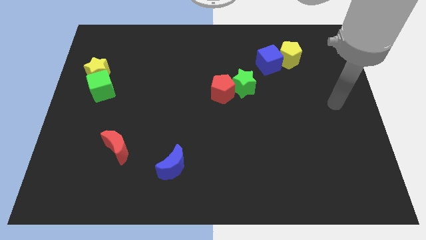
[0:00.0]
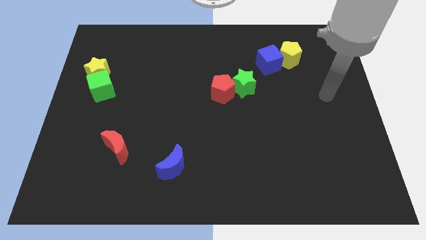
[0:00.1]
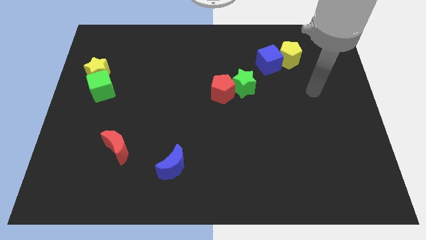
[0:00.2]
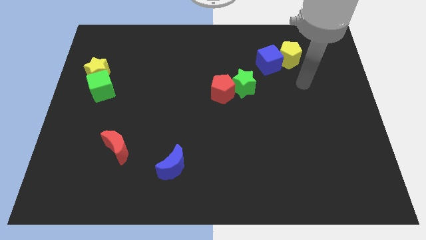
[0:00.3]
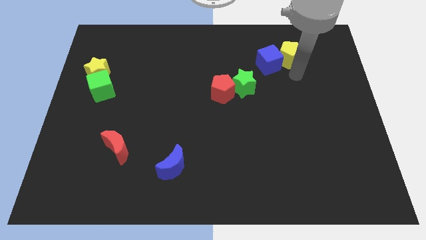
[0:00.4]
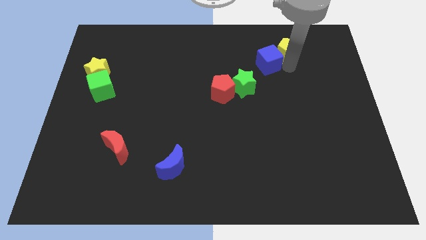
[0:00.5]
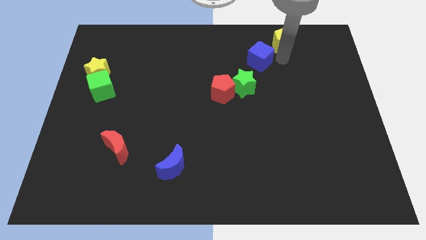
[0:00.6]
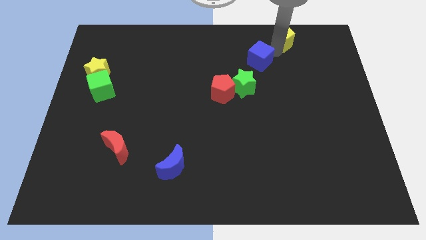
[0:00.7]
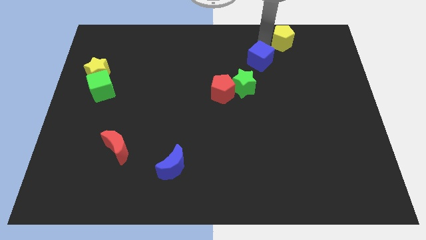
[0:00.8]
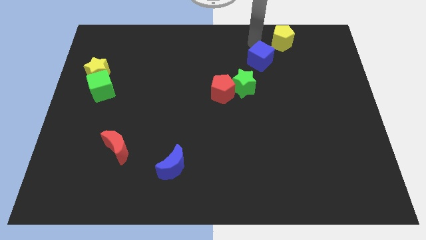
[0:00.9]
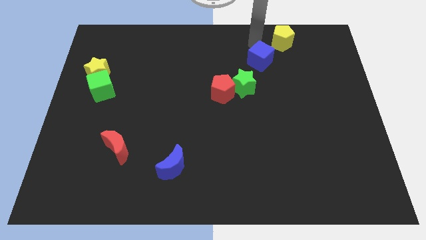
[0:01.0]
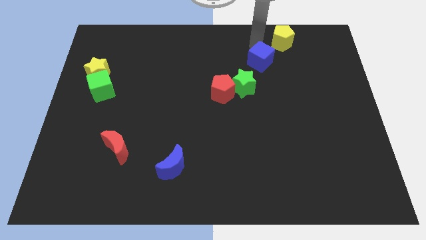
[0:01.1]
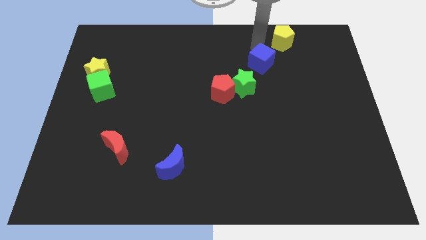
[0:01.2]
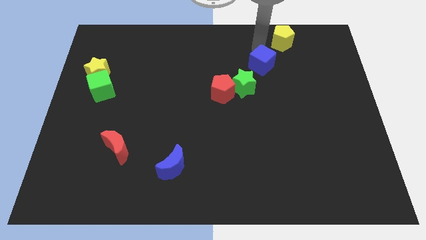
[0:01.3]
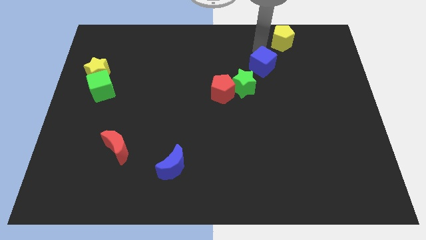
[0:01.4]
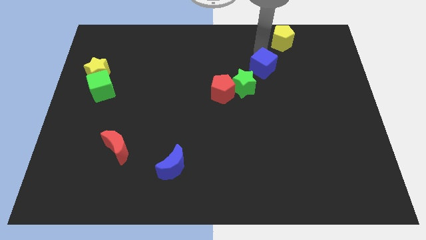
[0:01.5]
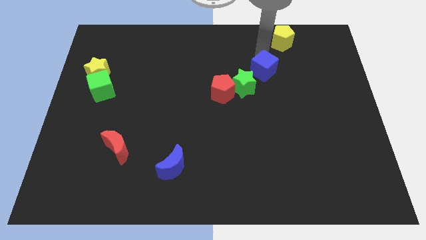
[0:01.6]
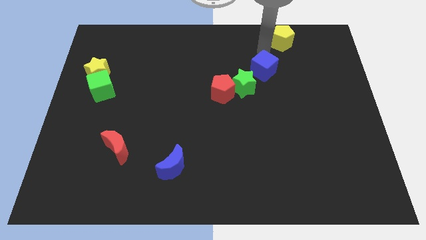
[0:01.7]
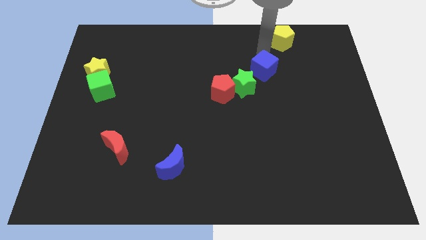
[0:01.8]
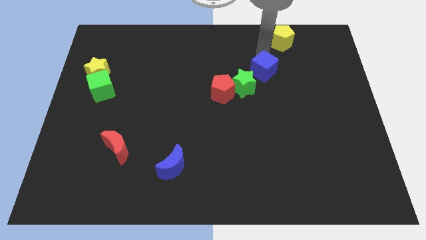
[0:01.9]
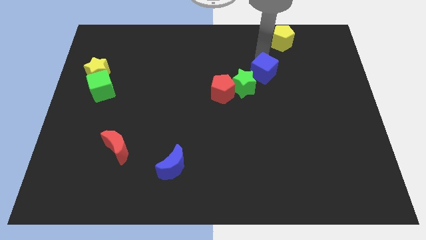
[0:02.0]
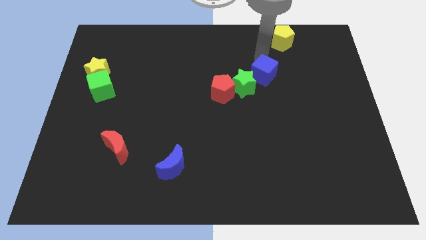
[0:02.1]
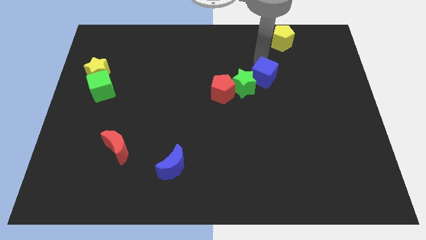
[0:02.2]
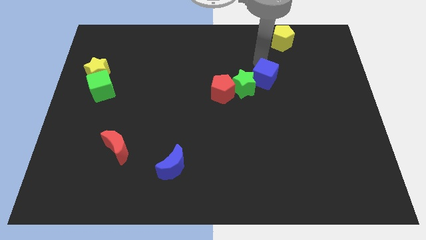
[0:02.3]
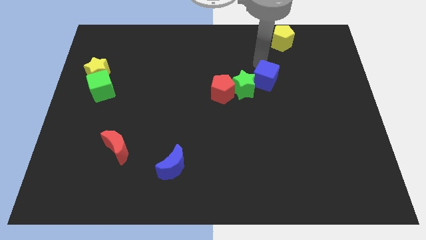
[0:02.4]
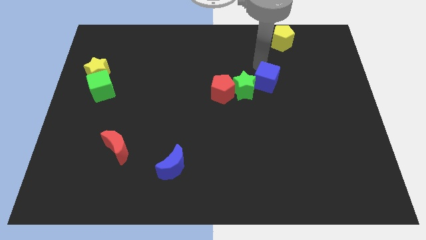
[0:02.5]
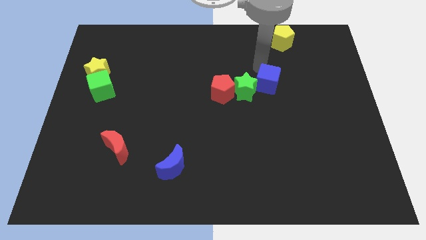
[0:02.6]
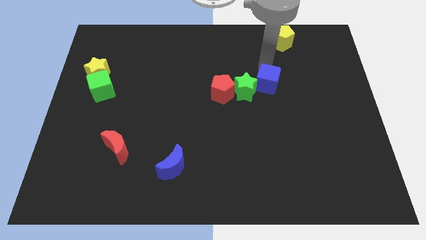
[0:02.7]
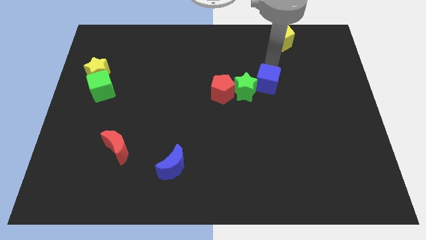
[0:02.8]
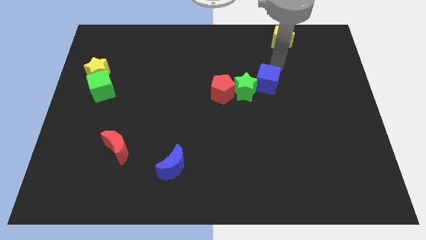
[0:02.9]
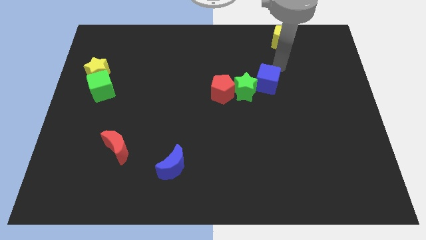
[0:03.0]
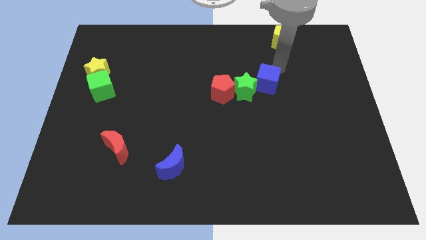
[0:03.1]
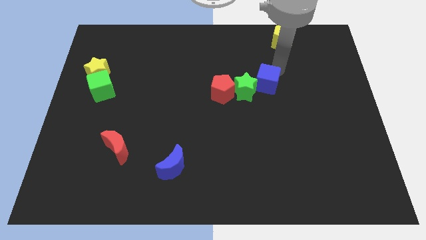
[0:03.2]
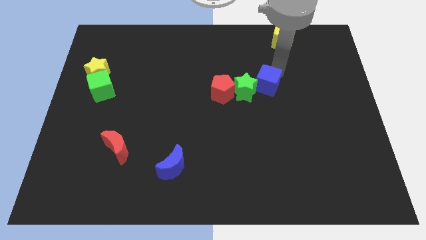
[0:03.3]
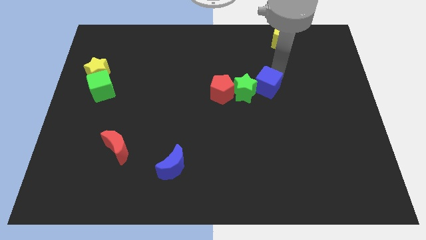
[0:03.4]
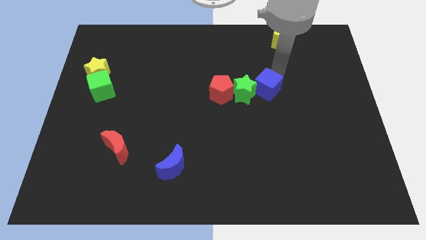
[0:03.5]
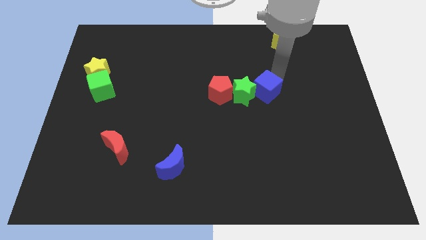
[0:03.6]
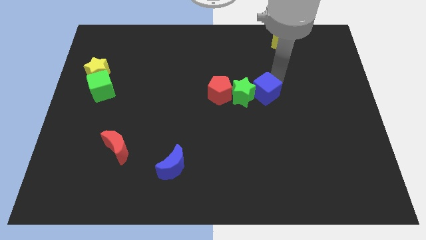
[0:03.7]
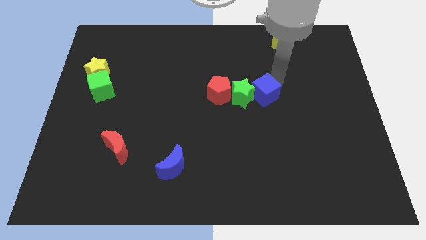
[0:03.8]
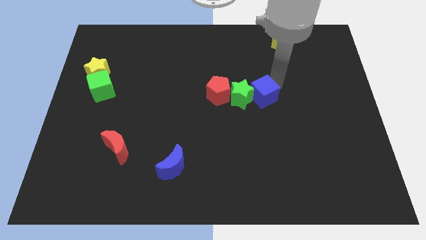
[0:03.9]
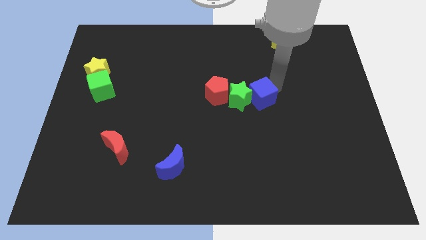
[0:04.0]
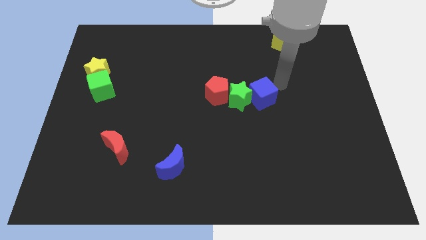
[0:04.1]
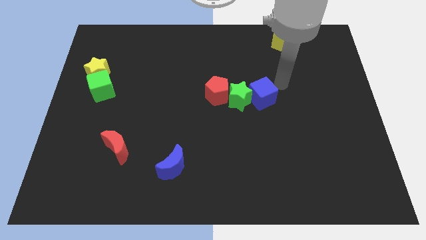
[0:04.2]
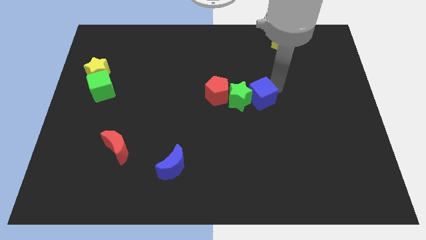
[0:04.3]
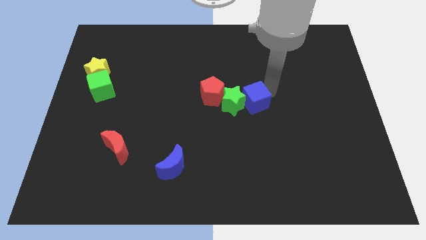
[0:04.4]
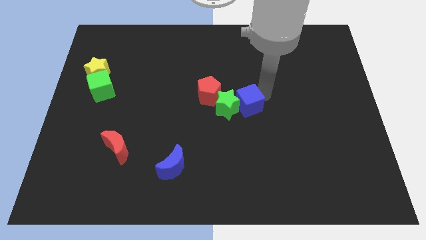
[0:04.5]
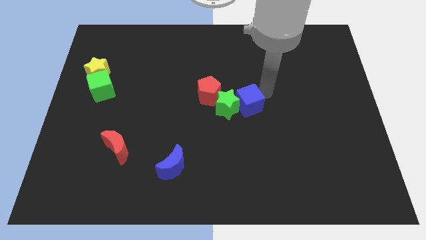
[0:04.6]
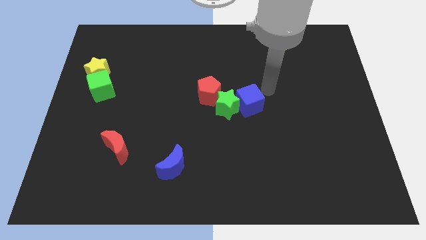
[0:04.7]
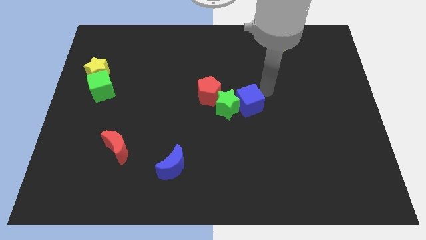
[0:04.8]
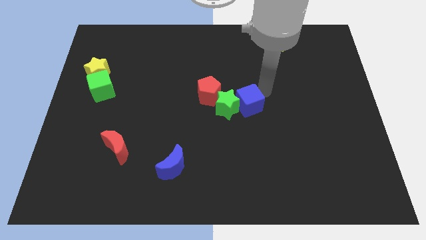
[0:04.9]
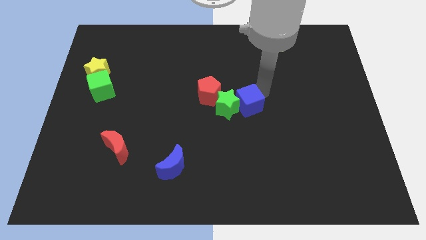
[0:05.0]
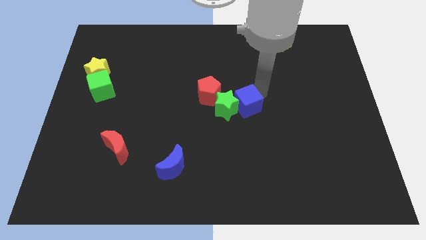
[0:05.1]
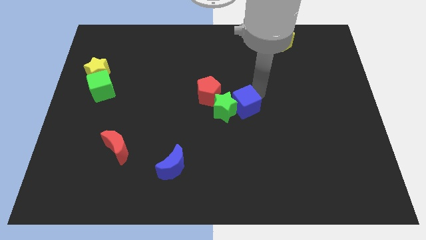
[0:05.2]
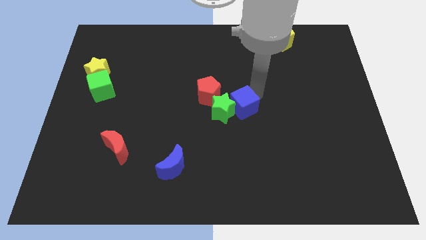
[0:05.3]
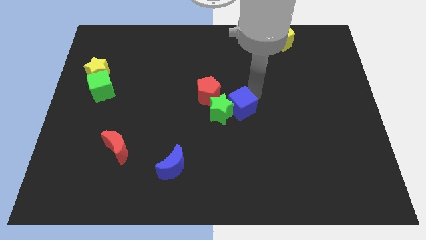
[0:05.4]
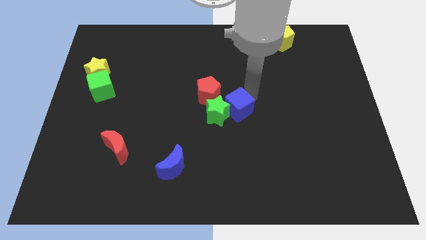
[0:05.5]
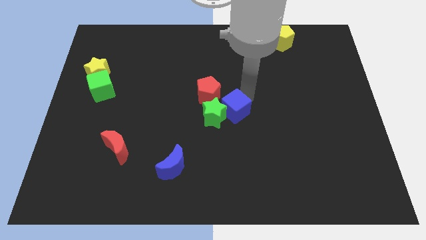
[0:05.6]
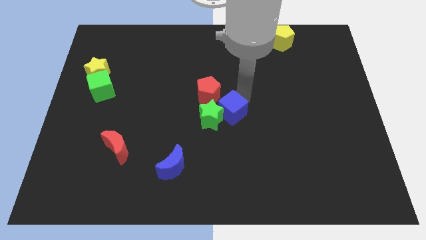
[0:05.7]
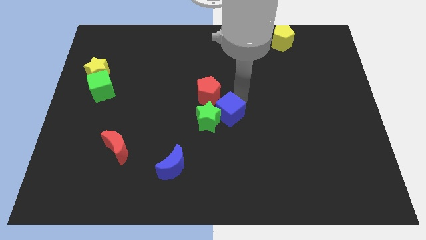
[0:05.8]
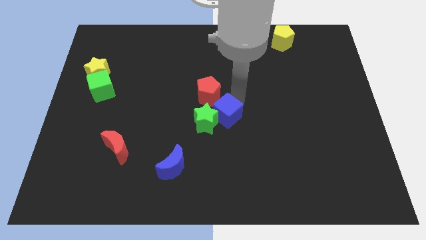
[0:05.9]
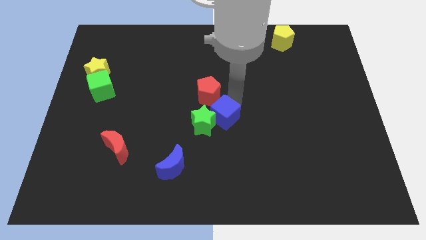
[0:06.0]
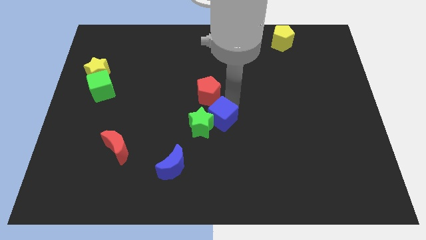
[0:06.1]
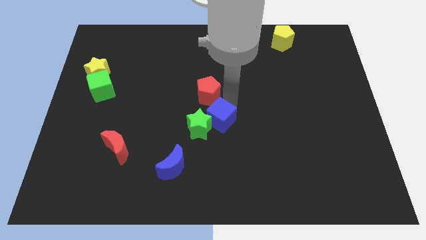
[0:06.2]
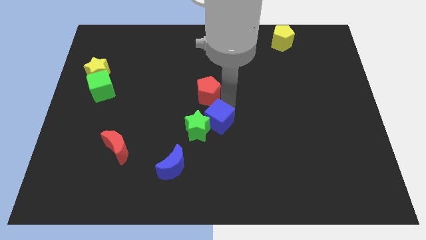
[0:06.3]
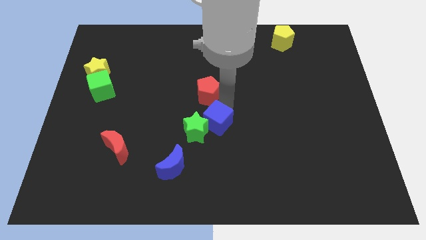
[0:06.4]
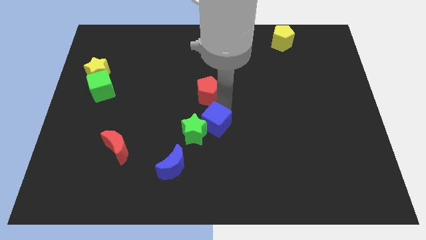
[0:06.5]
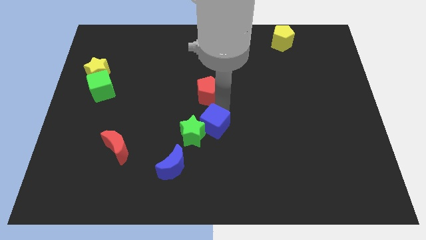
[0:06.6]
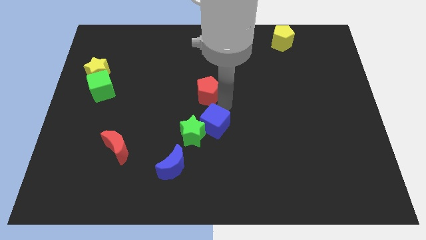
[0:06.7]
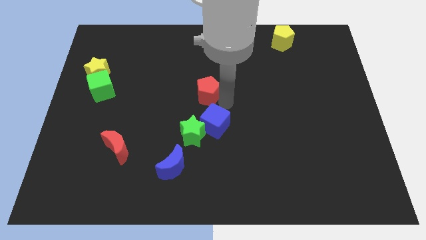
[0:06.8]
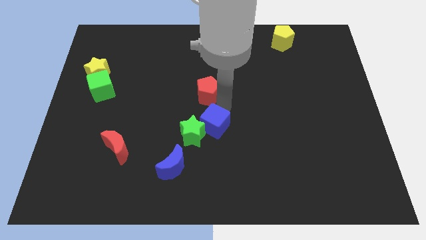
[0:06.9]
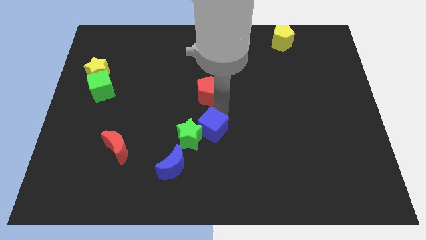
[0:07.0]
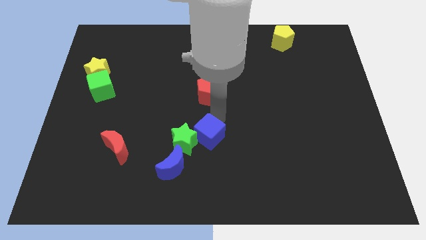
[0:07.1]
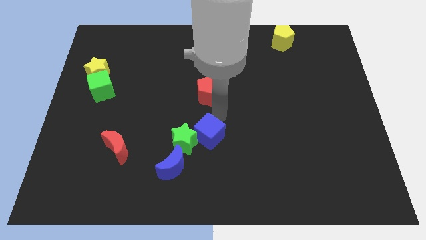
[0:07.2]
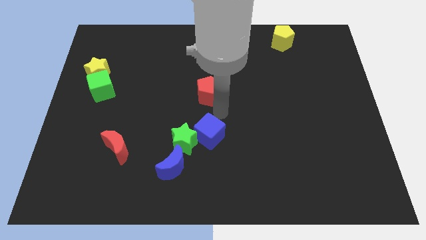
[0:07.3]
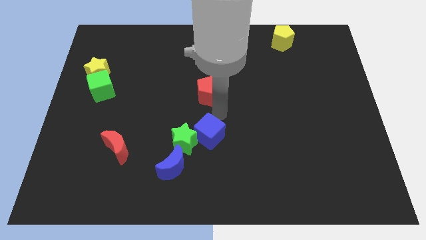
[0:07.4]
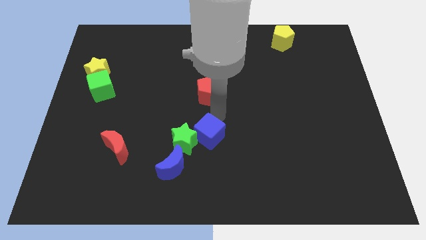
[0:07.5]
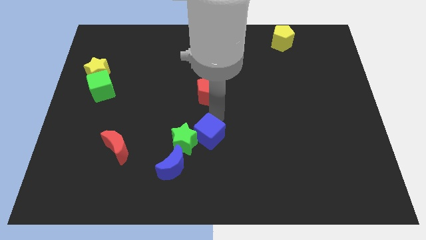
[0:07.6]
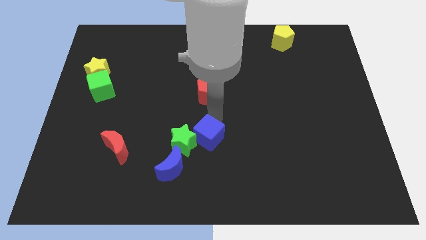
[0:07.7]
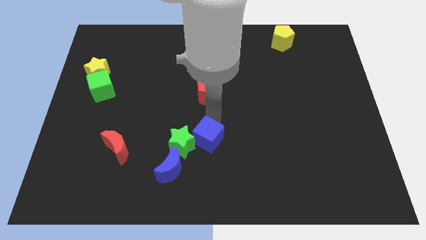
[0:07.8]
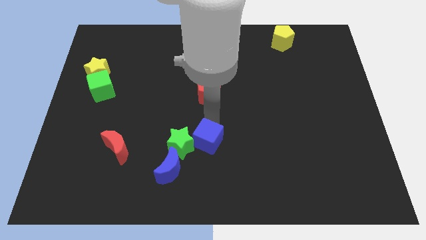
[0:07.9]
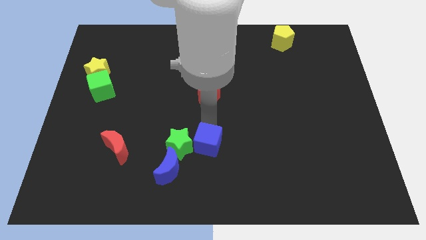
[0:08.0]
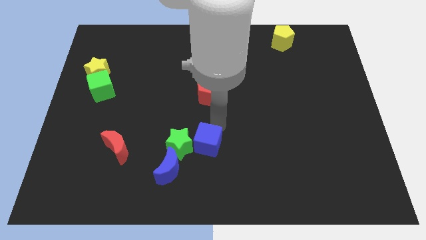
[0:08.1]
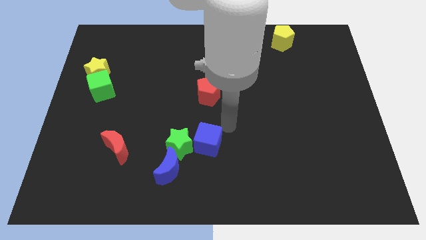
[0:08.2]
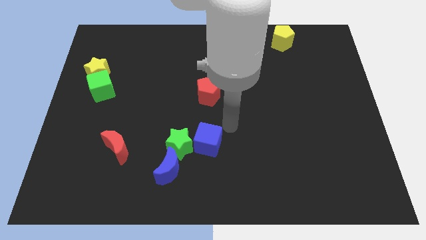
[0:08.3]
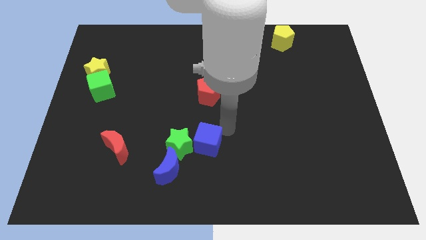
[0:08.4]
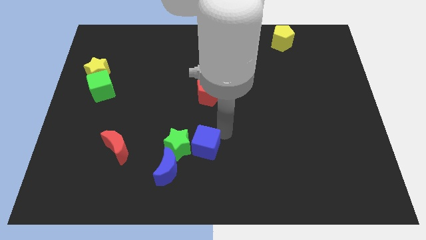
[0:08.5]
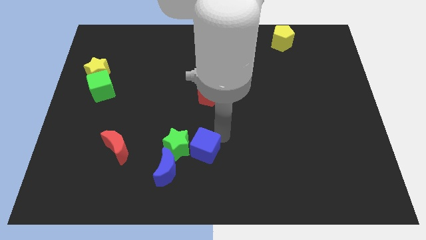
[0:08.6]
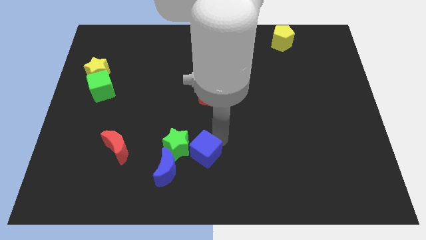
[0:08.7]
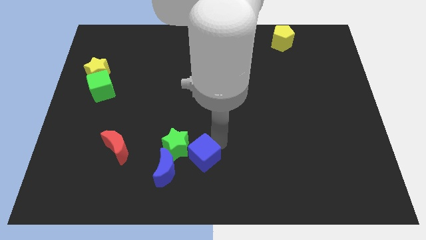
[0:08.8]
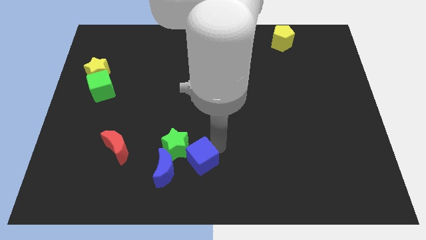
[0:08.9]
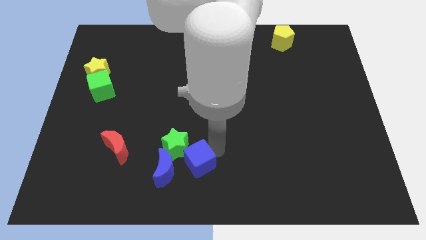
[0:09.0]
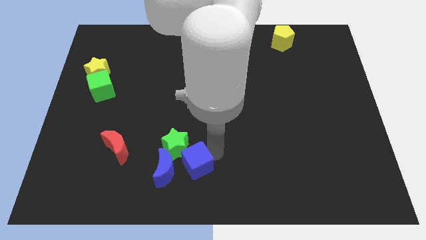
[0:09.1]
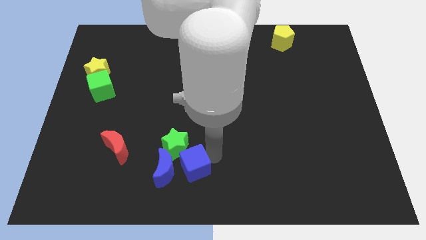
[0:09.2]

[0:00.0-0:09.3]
slide the blue cube to the blue moon
